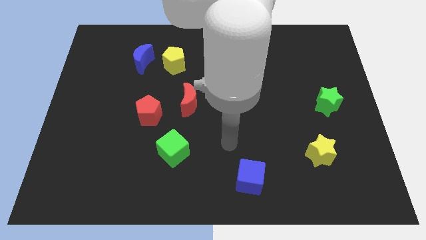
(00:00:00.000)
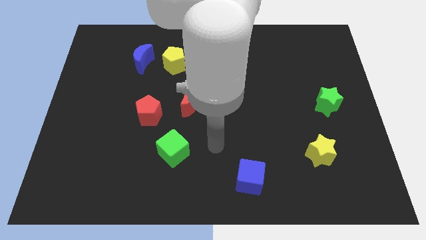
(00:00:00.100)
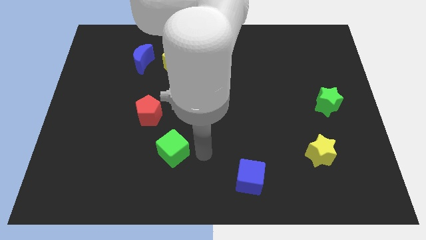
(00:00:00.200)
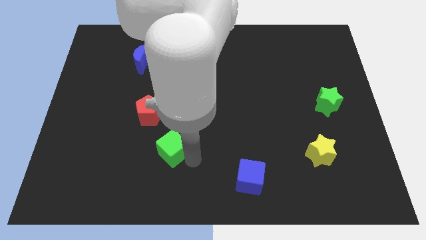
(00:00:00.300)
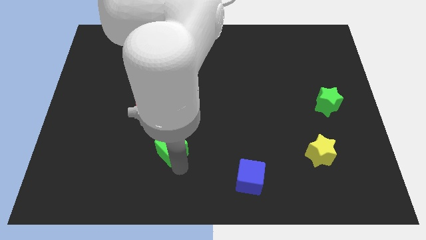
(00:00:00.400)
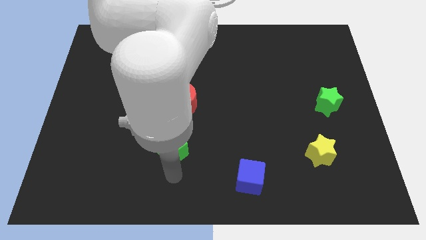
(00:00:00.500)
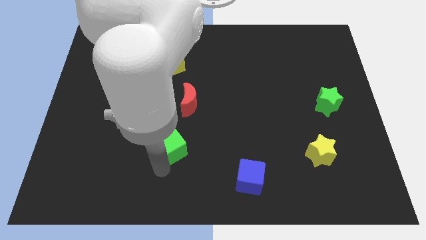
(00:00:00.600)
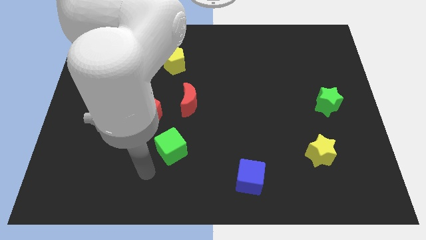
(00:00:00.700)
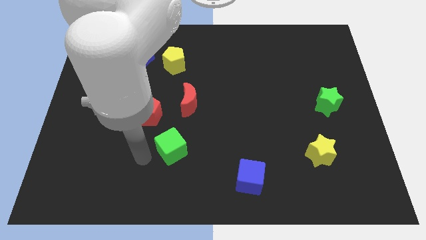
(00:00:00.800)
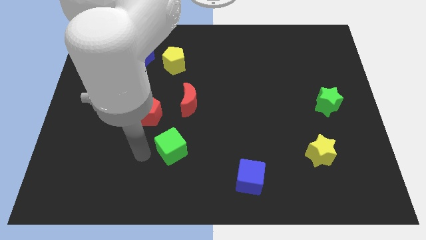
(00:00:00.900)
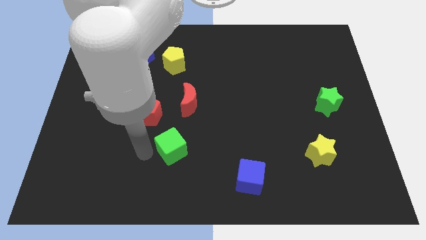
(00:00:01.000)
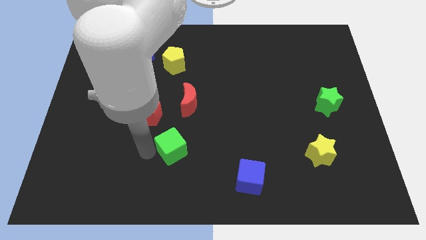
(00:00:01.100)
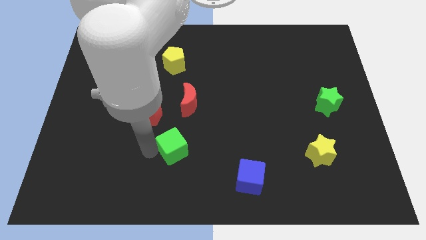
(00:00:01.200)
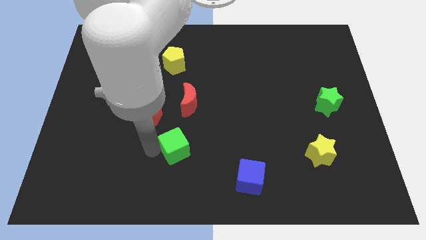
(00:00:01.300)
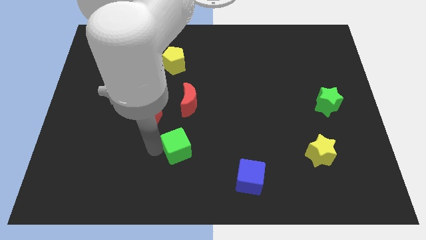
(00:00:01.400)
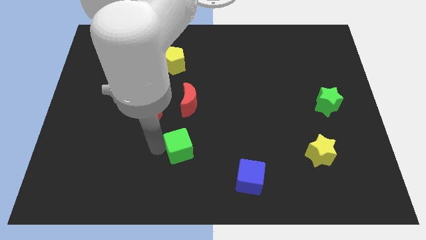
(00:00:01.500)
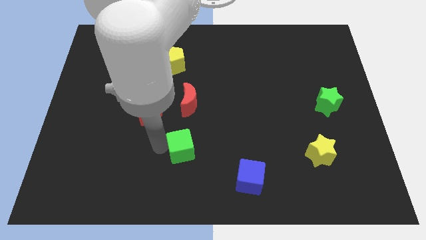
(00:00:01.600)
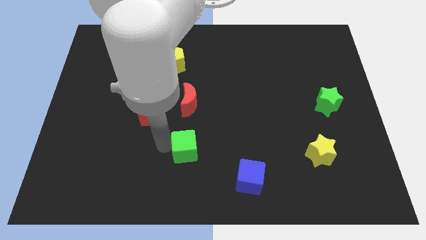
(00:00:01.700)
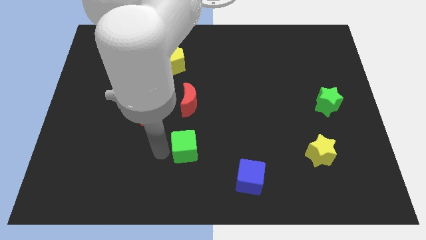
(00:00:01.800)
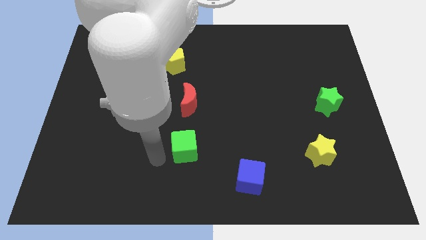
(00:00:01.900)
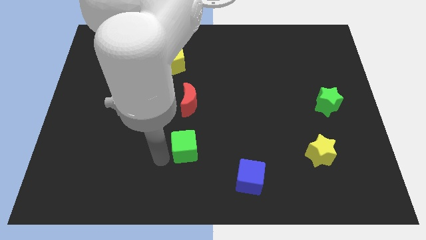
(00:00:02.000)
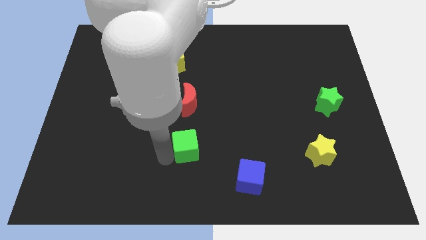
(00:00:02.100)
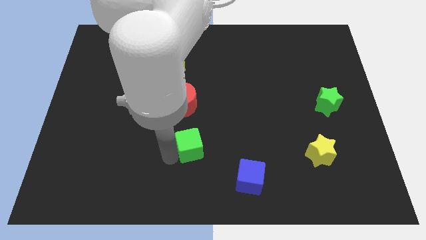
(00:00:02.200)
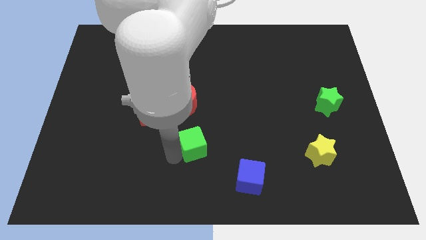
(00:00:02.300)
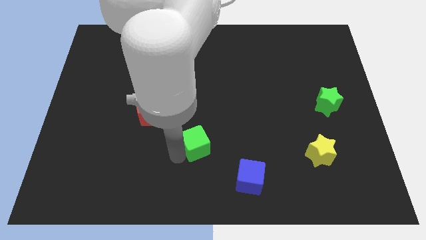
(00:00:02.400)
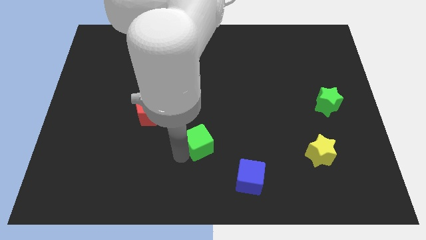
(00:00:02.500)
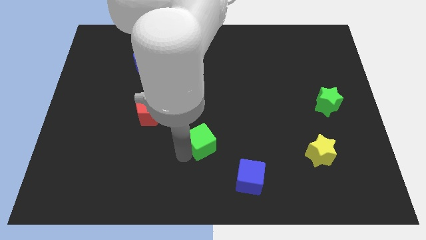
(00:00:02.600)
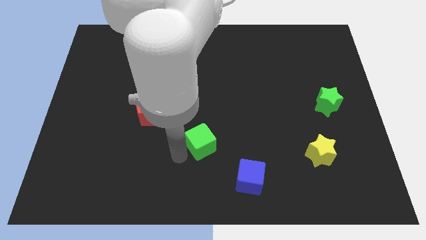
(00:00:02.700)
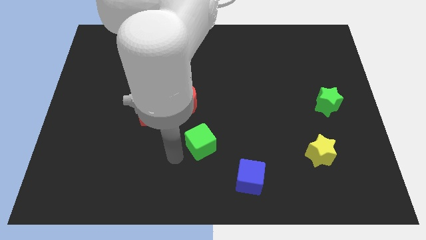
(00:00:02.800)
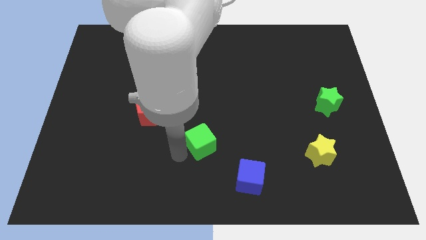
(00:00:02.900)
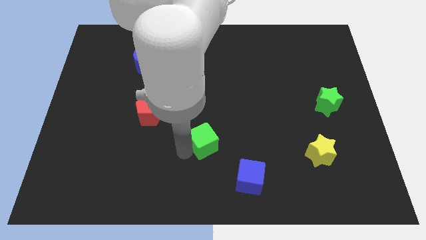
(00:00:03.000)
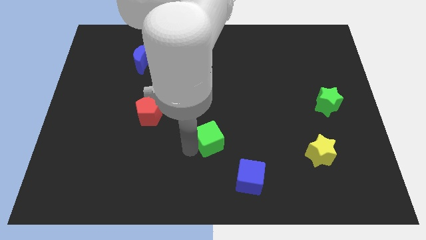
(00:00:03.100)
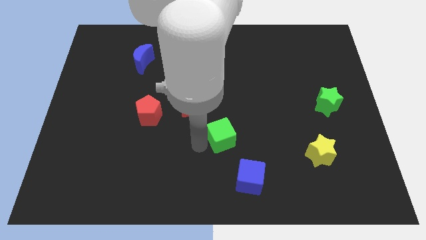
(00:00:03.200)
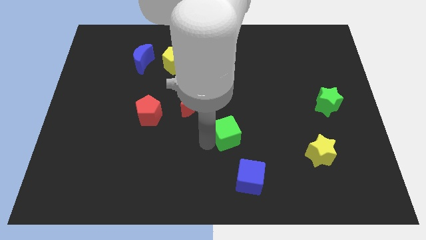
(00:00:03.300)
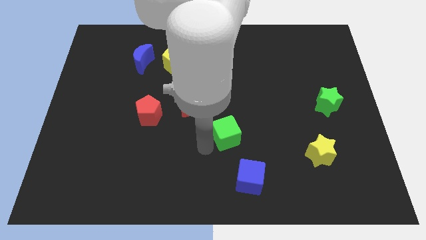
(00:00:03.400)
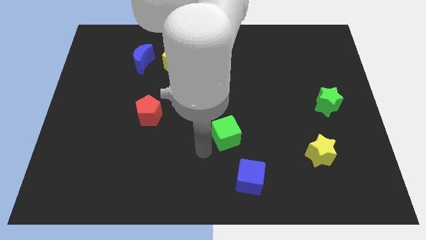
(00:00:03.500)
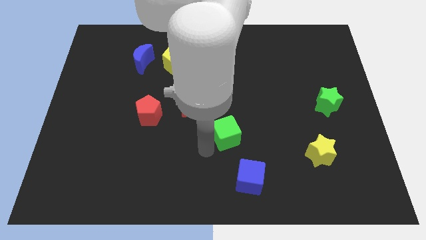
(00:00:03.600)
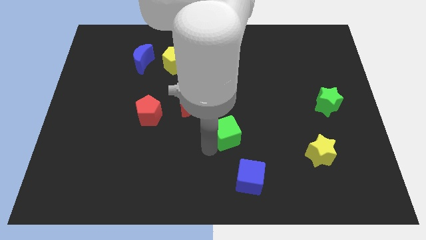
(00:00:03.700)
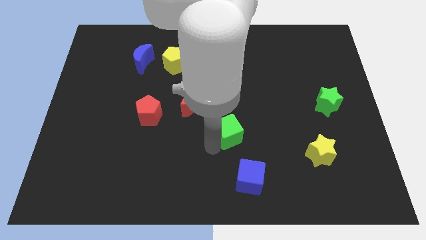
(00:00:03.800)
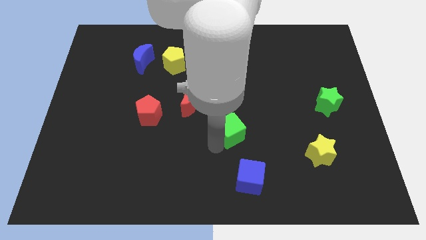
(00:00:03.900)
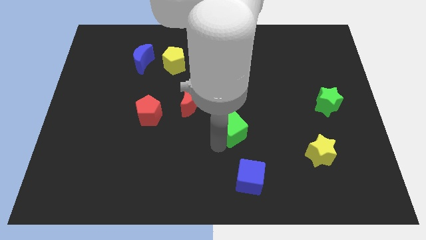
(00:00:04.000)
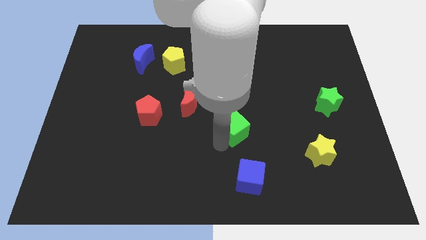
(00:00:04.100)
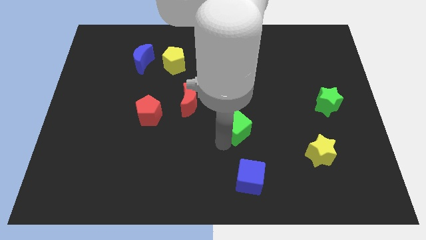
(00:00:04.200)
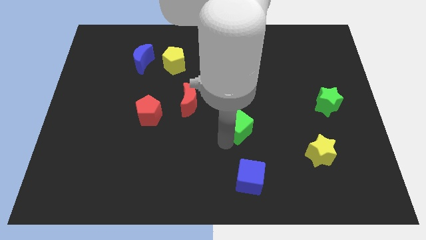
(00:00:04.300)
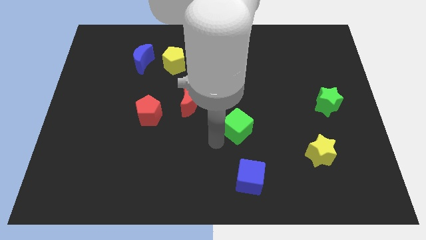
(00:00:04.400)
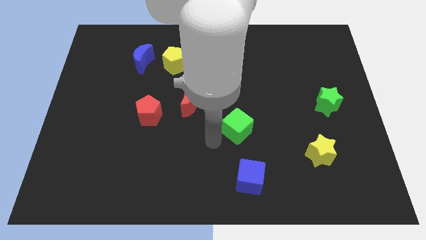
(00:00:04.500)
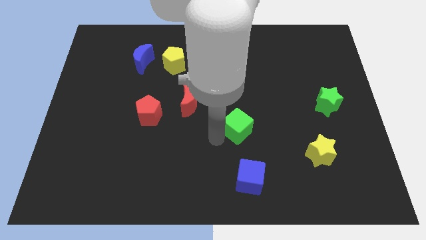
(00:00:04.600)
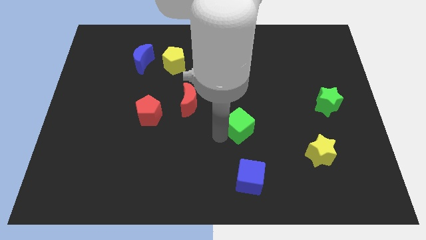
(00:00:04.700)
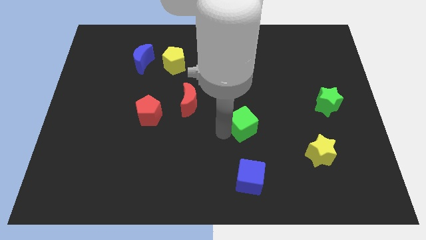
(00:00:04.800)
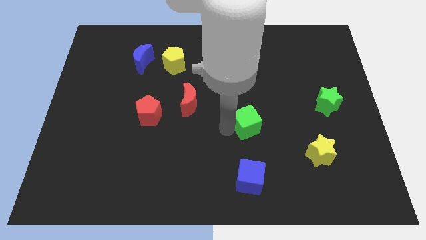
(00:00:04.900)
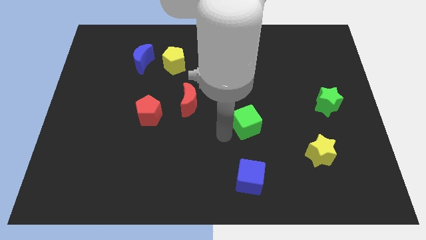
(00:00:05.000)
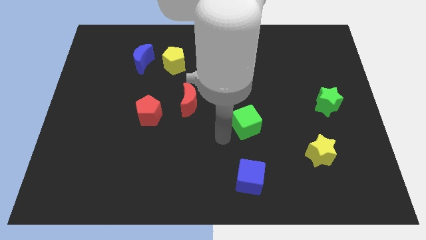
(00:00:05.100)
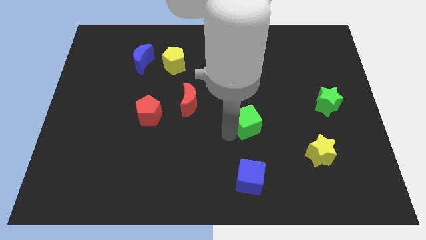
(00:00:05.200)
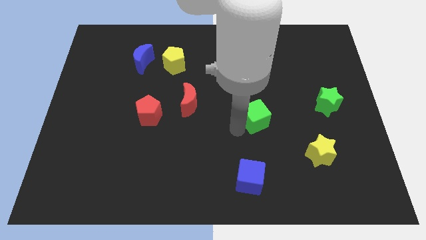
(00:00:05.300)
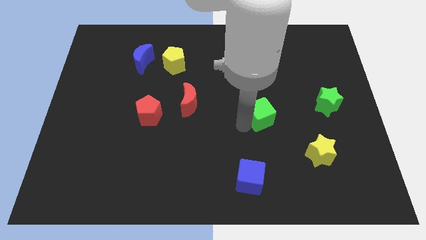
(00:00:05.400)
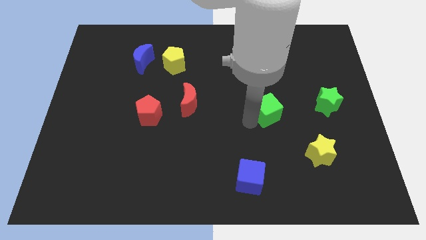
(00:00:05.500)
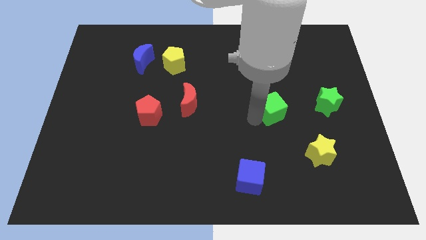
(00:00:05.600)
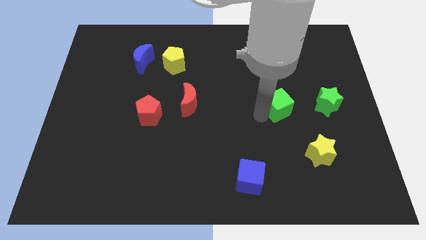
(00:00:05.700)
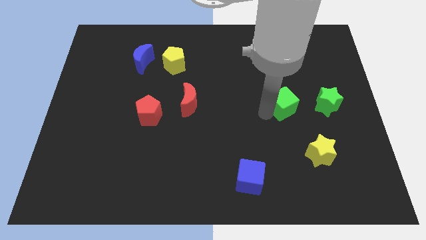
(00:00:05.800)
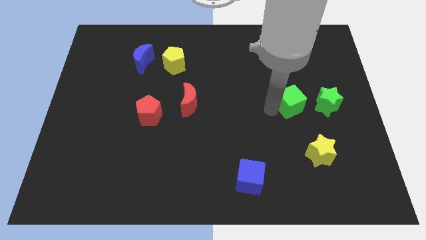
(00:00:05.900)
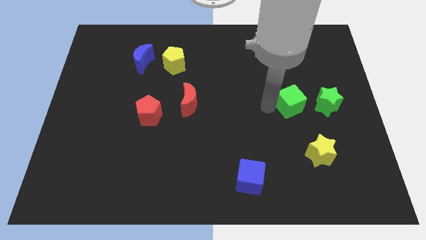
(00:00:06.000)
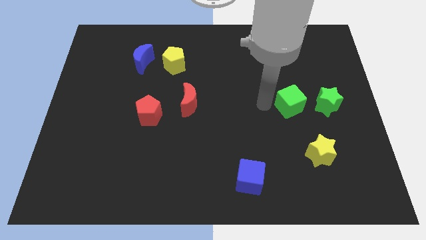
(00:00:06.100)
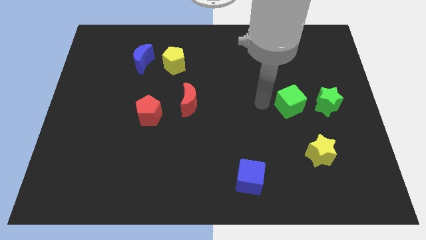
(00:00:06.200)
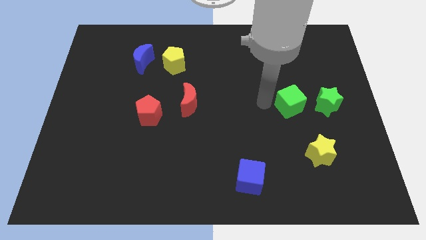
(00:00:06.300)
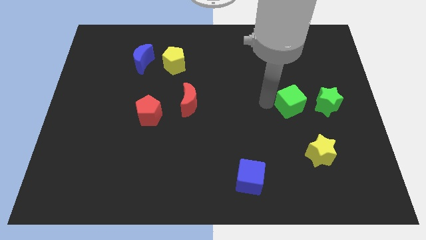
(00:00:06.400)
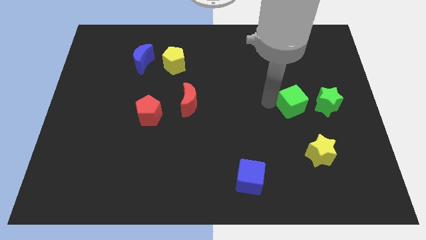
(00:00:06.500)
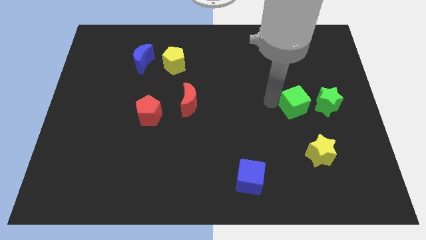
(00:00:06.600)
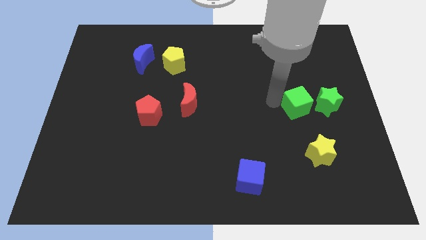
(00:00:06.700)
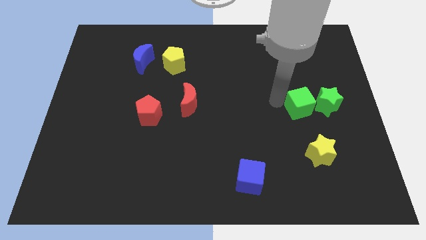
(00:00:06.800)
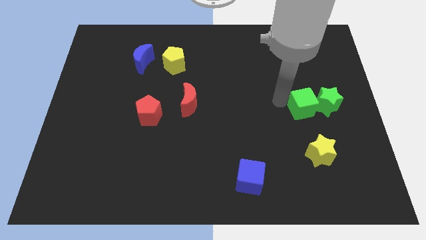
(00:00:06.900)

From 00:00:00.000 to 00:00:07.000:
slide the green cube towards the green star
